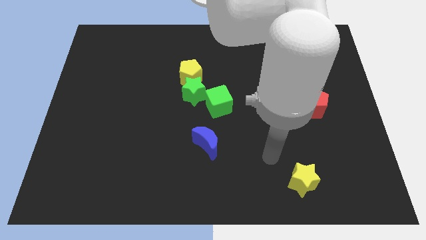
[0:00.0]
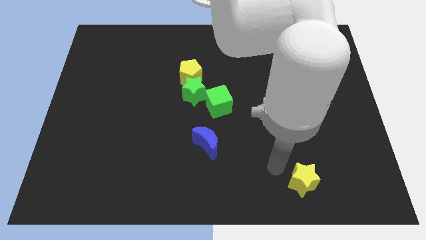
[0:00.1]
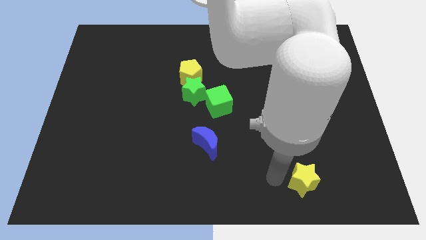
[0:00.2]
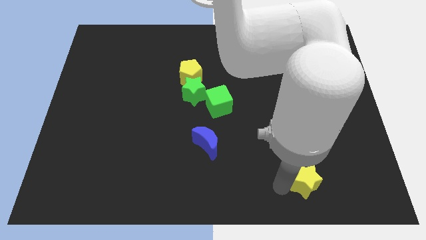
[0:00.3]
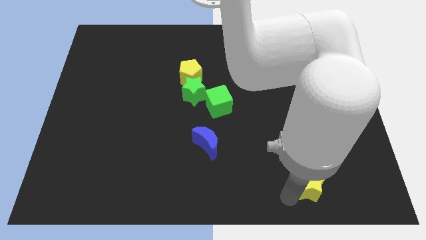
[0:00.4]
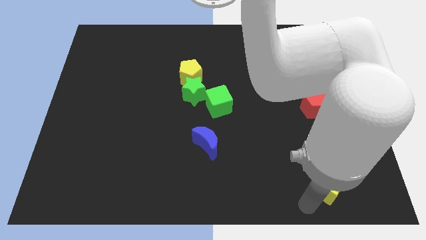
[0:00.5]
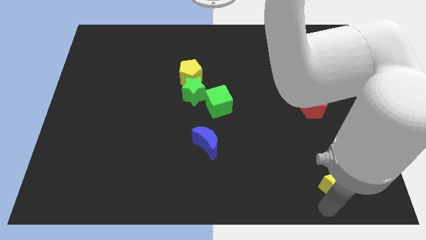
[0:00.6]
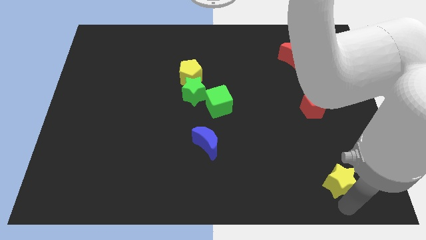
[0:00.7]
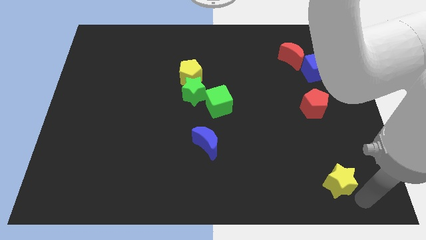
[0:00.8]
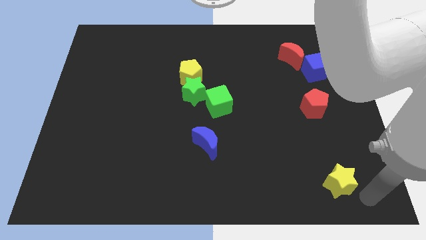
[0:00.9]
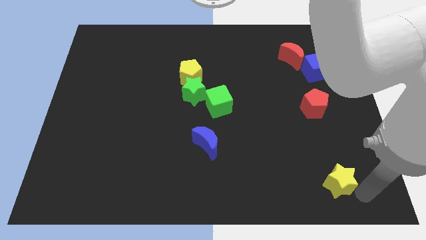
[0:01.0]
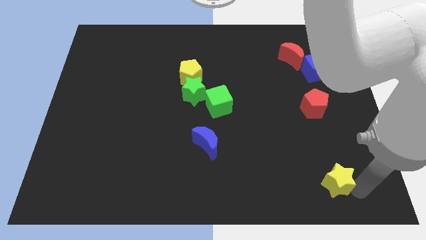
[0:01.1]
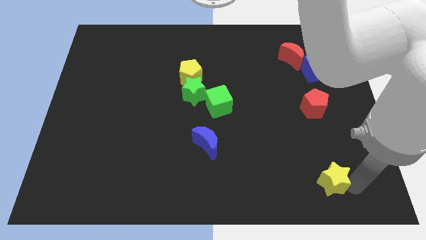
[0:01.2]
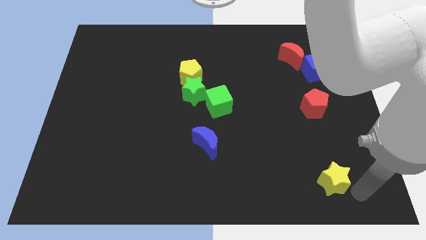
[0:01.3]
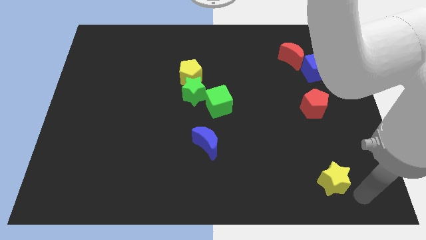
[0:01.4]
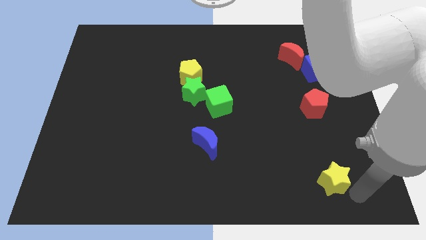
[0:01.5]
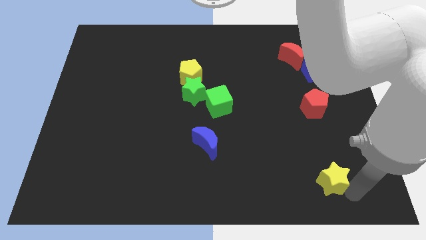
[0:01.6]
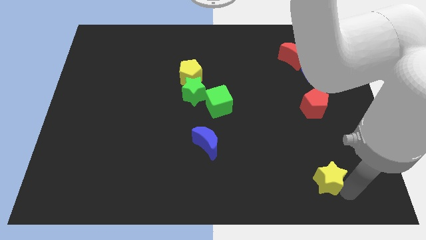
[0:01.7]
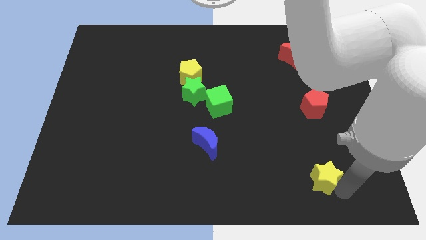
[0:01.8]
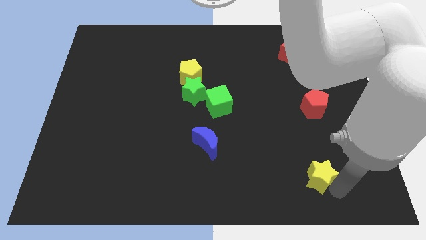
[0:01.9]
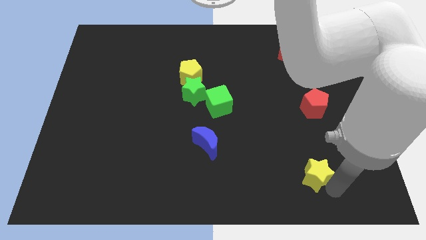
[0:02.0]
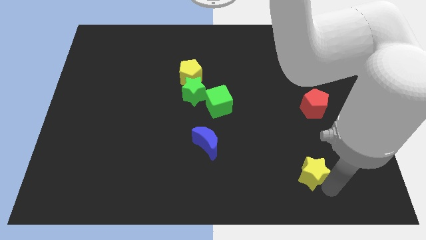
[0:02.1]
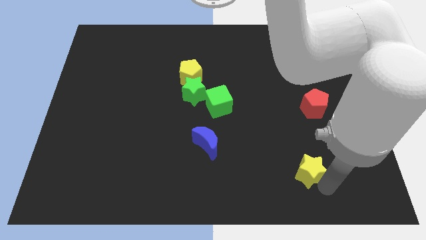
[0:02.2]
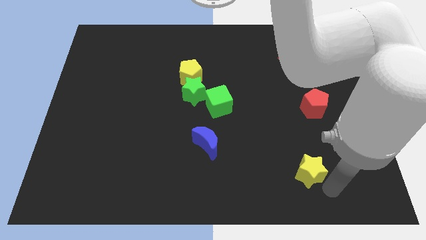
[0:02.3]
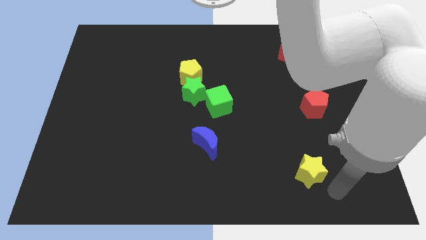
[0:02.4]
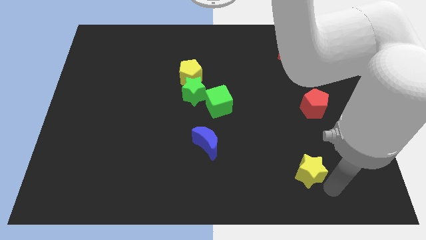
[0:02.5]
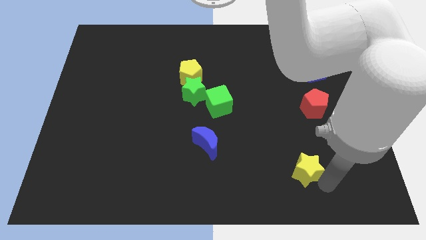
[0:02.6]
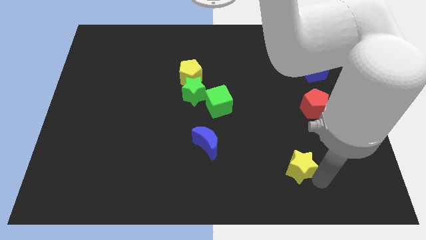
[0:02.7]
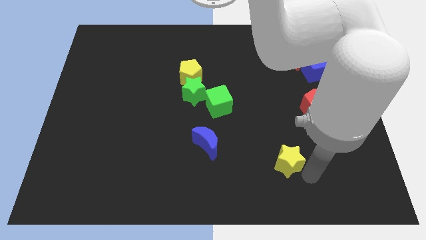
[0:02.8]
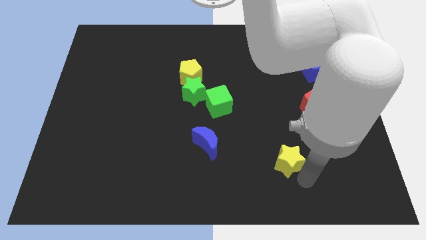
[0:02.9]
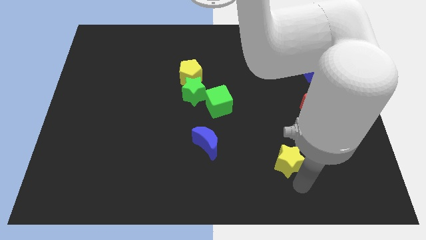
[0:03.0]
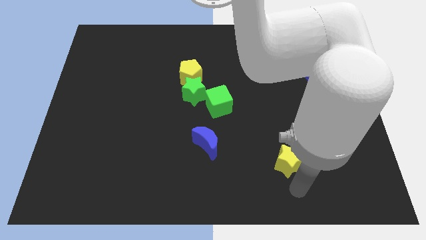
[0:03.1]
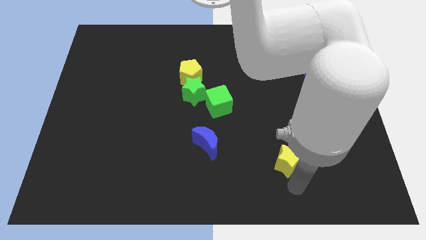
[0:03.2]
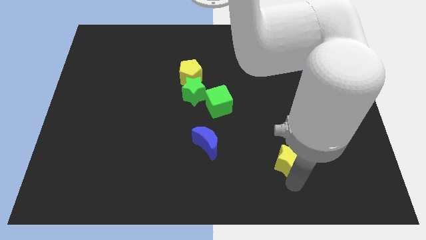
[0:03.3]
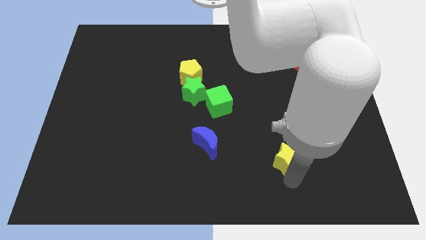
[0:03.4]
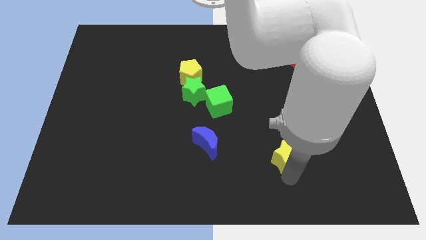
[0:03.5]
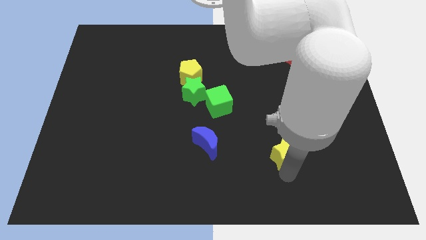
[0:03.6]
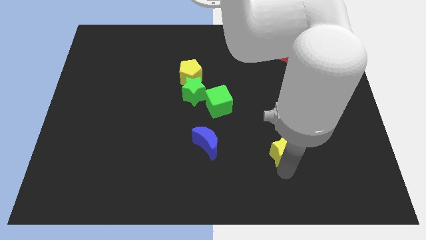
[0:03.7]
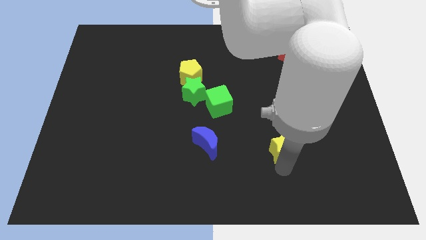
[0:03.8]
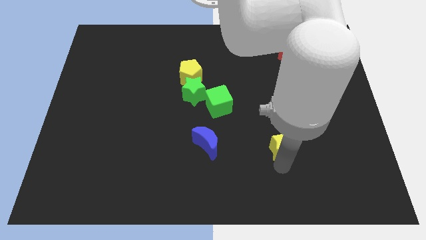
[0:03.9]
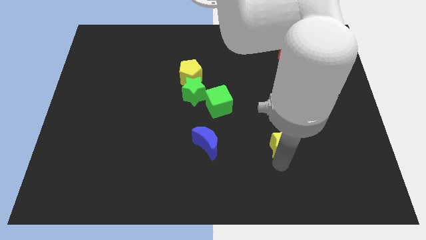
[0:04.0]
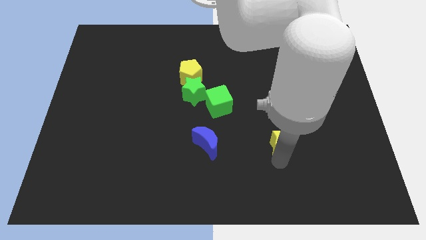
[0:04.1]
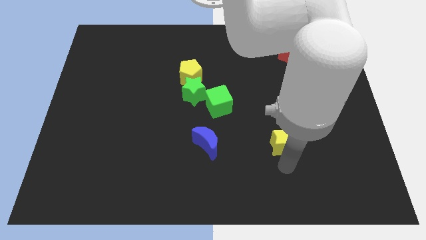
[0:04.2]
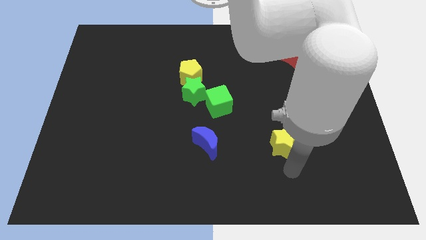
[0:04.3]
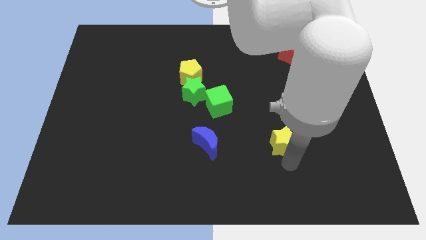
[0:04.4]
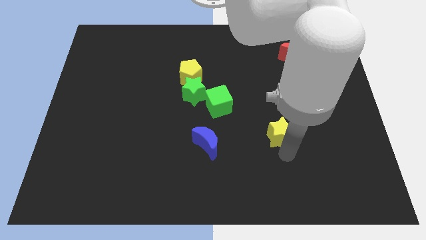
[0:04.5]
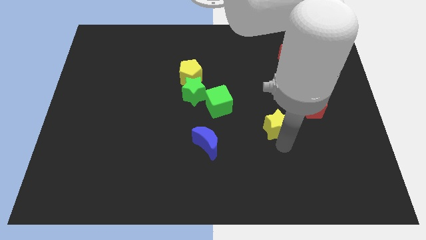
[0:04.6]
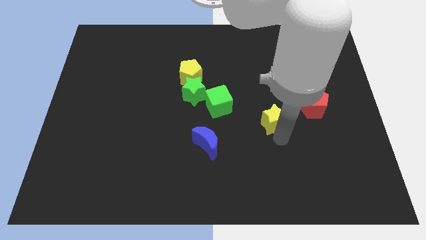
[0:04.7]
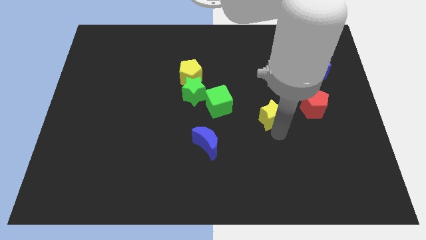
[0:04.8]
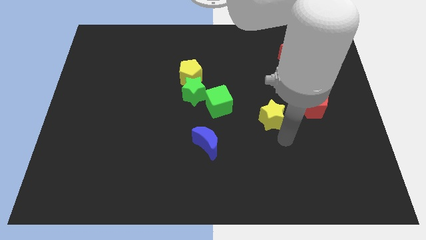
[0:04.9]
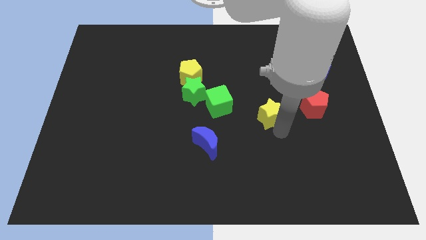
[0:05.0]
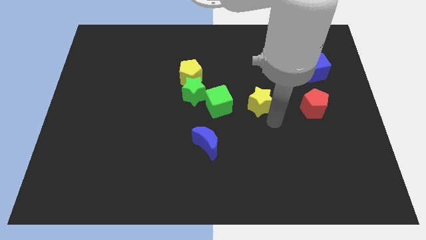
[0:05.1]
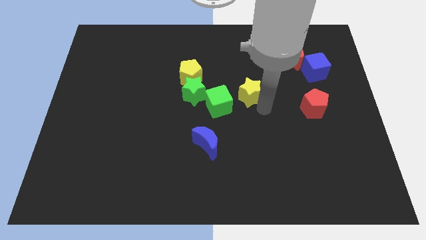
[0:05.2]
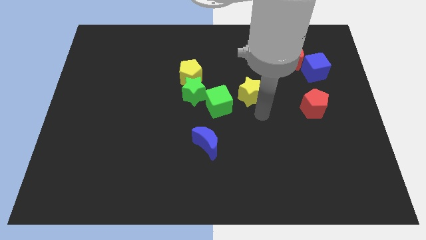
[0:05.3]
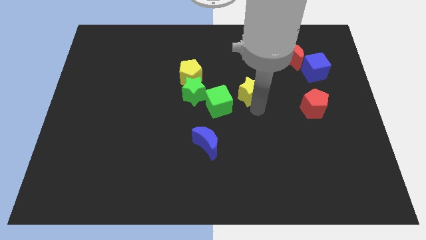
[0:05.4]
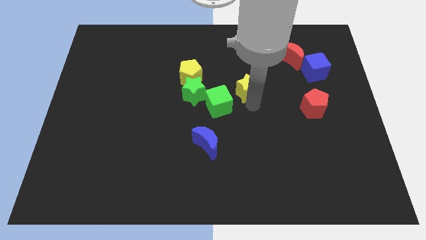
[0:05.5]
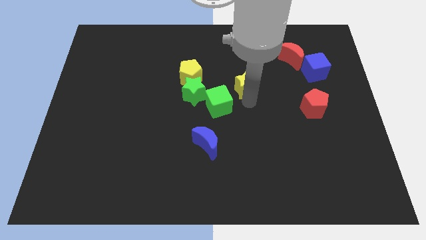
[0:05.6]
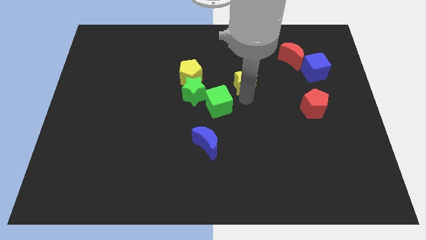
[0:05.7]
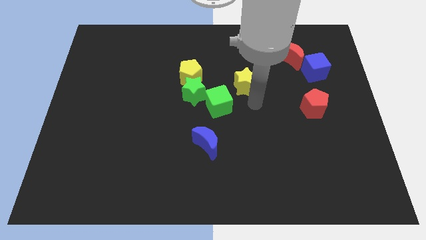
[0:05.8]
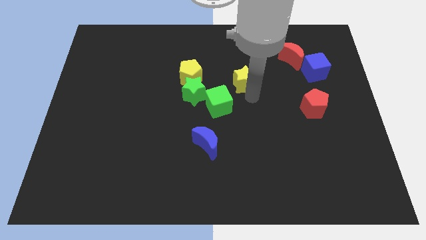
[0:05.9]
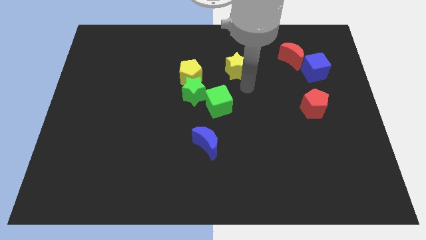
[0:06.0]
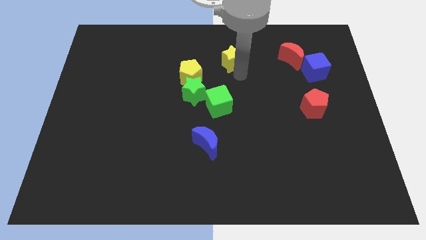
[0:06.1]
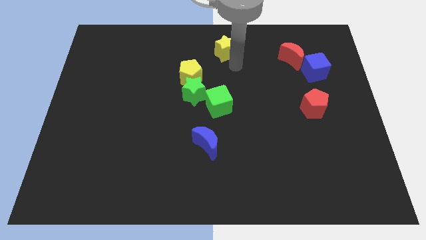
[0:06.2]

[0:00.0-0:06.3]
push the yellow star to the towards your base
